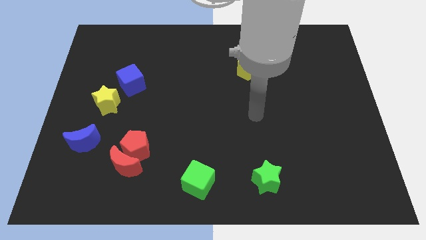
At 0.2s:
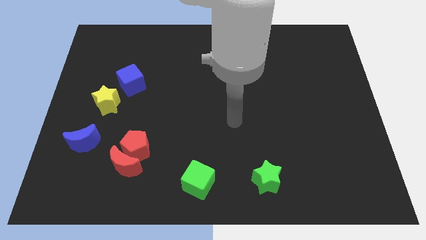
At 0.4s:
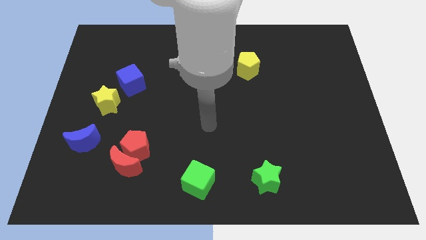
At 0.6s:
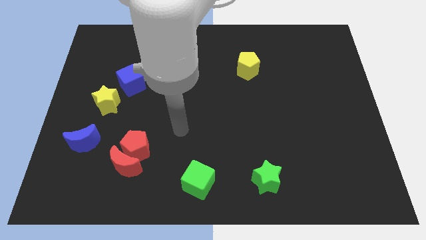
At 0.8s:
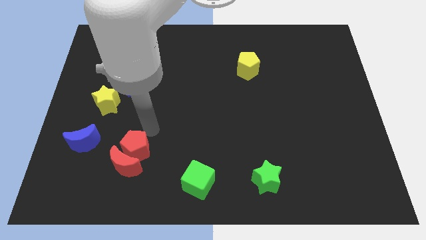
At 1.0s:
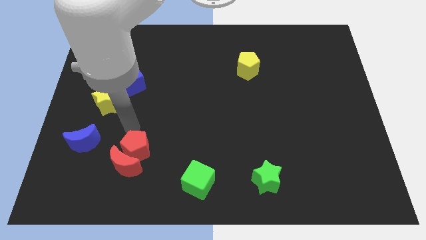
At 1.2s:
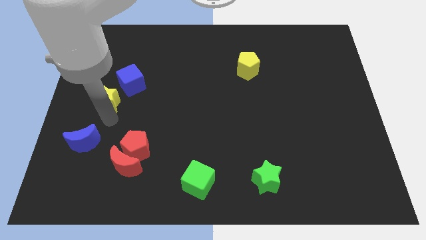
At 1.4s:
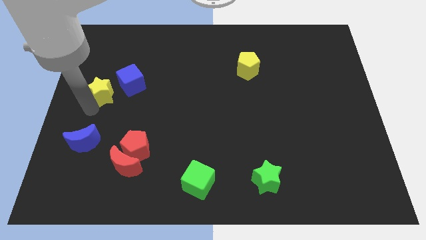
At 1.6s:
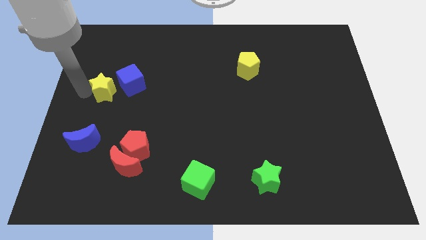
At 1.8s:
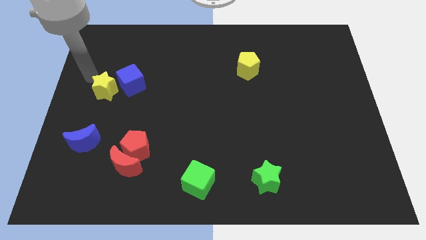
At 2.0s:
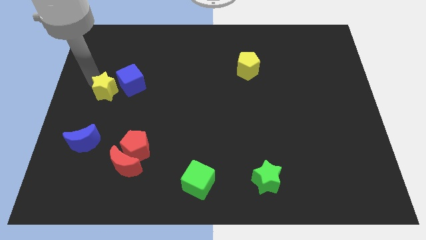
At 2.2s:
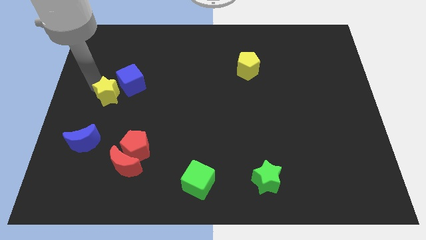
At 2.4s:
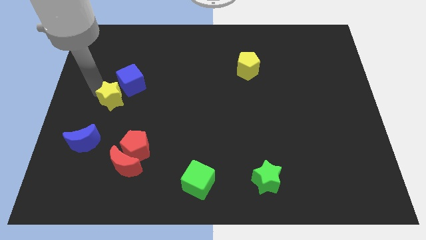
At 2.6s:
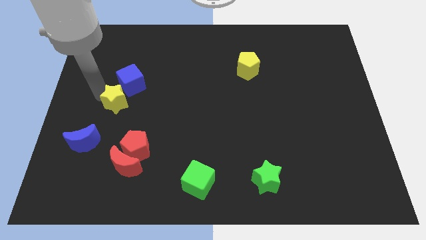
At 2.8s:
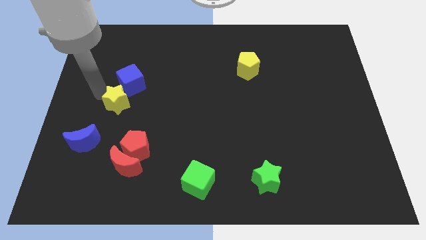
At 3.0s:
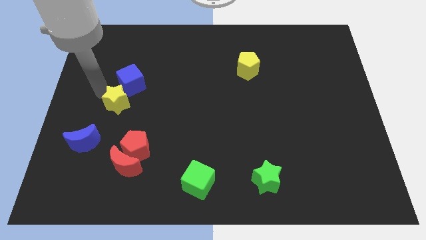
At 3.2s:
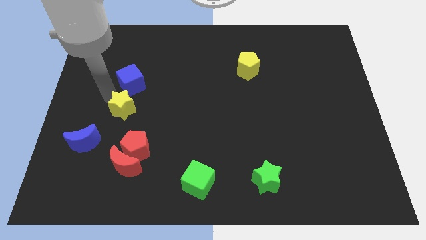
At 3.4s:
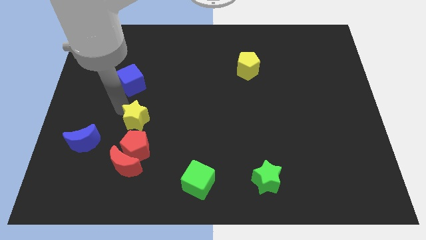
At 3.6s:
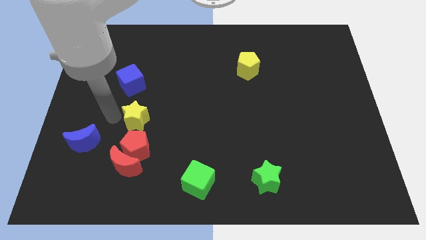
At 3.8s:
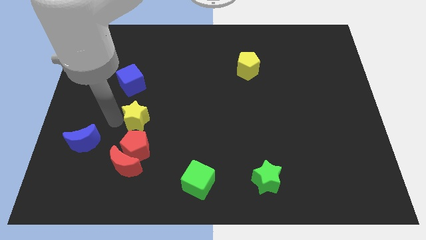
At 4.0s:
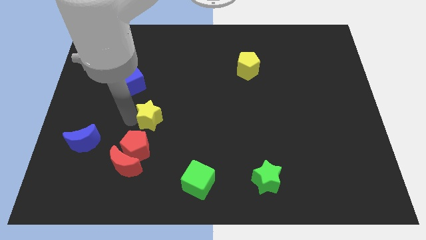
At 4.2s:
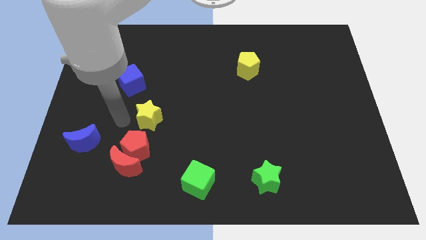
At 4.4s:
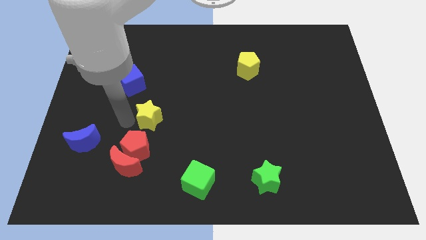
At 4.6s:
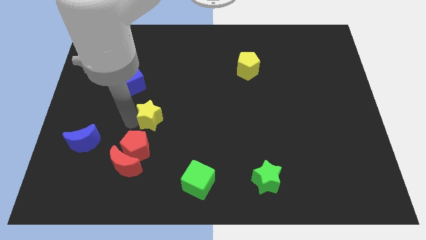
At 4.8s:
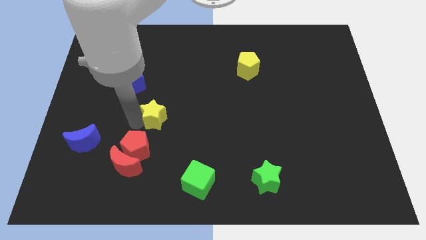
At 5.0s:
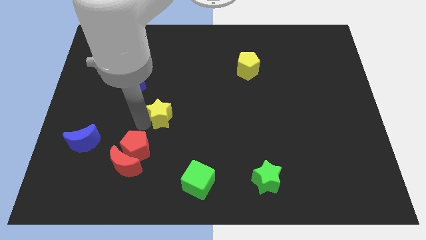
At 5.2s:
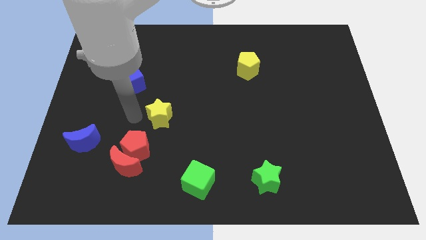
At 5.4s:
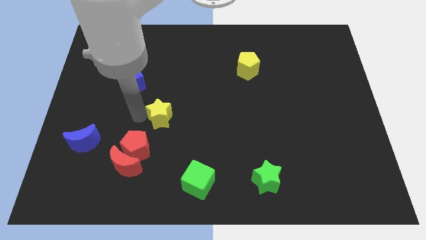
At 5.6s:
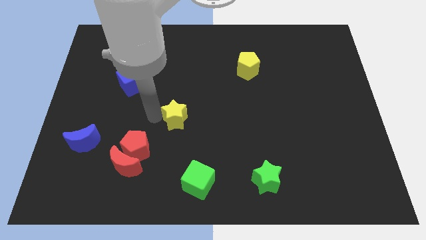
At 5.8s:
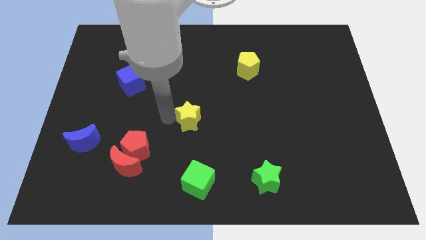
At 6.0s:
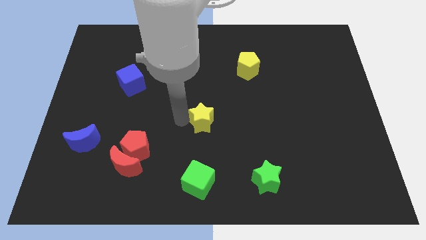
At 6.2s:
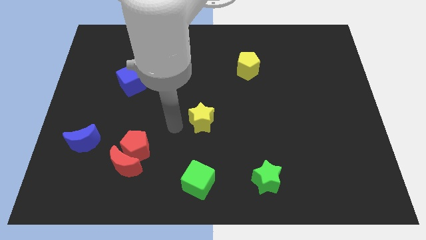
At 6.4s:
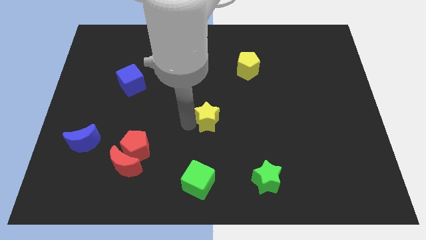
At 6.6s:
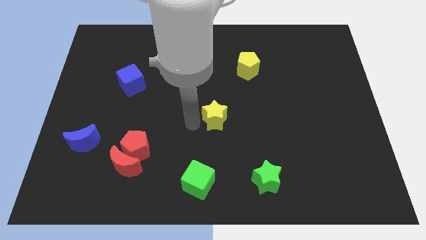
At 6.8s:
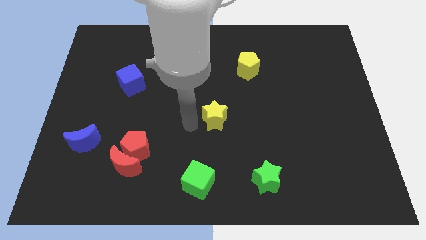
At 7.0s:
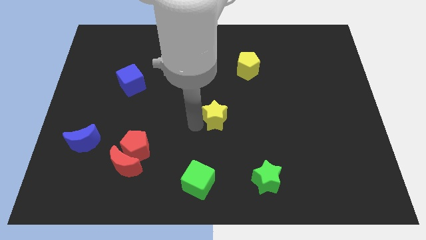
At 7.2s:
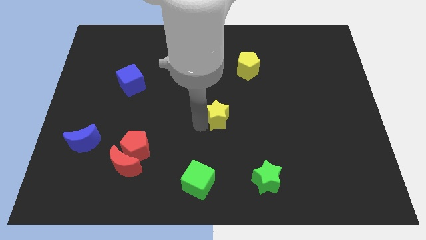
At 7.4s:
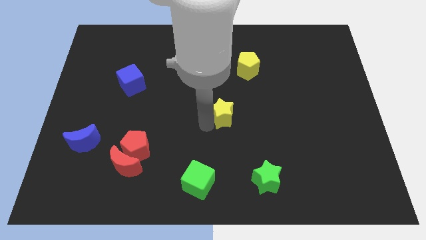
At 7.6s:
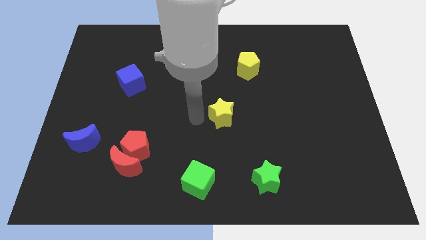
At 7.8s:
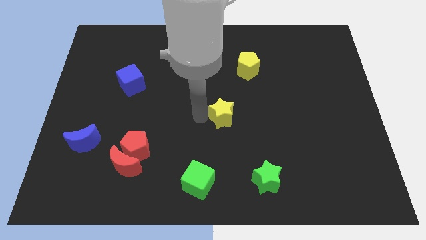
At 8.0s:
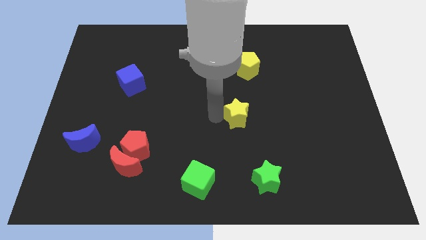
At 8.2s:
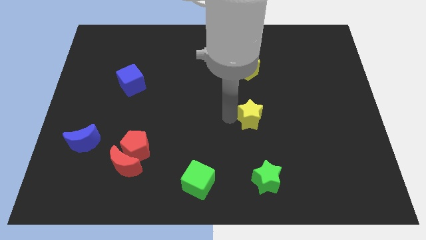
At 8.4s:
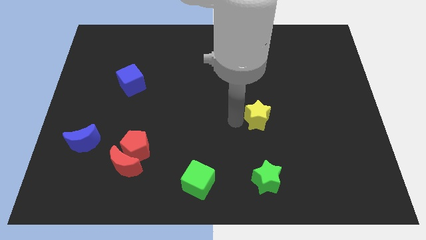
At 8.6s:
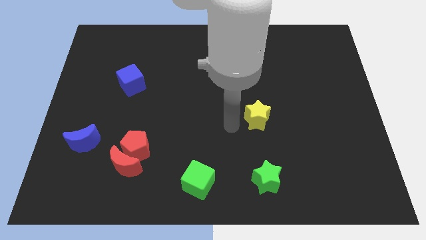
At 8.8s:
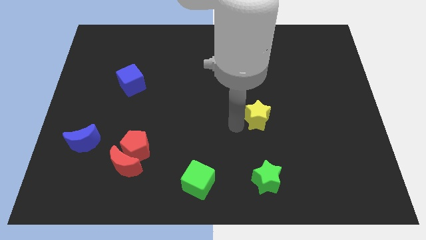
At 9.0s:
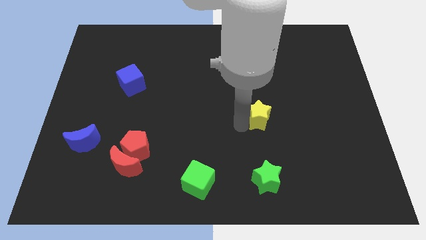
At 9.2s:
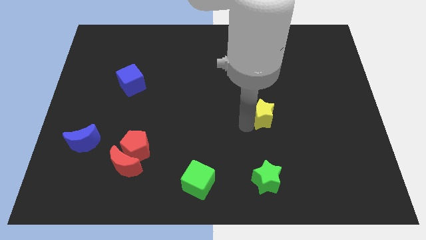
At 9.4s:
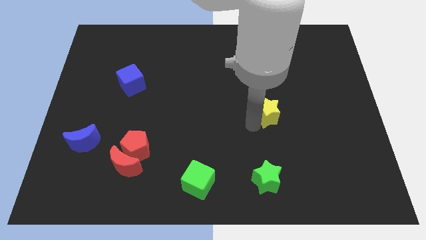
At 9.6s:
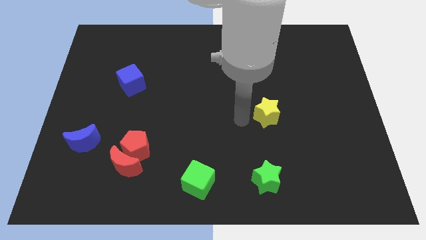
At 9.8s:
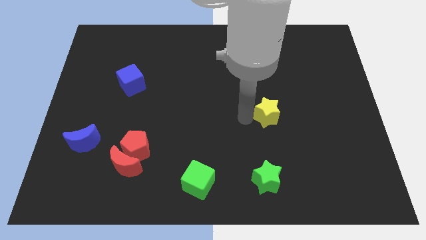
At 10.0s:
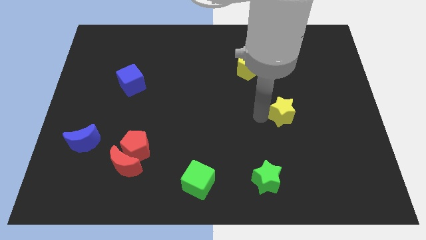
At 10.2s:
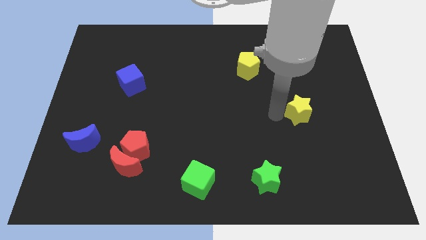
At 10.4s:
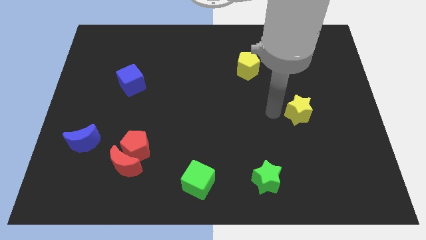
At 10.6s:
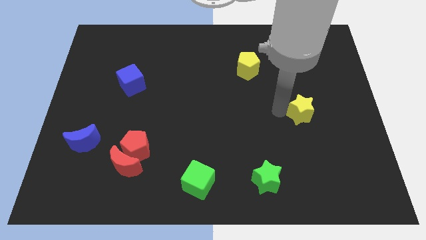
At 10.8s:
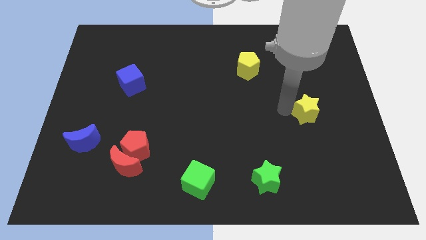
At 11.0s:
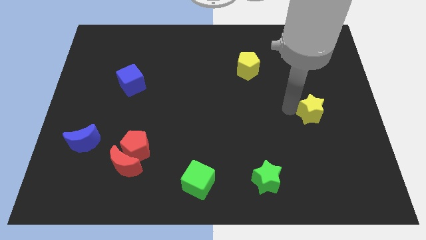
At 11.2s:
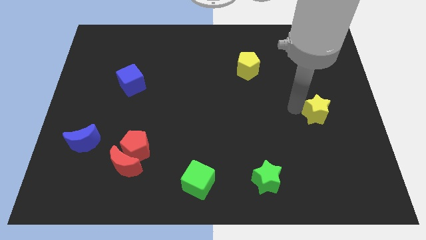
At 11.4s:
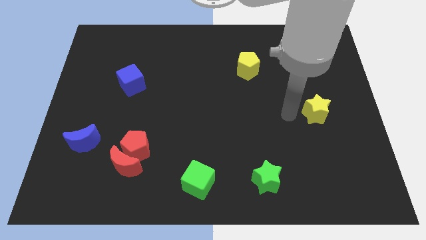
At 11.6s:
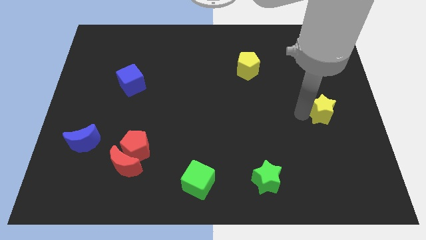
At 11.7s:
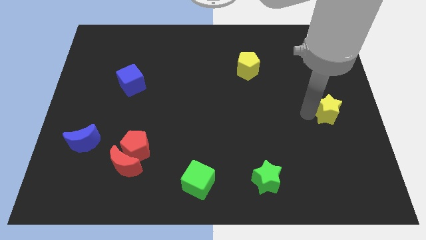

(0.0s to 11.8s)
push the yellow star to the right side of the board

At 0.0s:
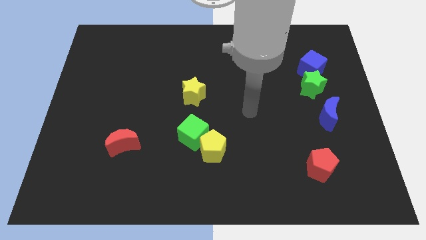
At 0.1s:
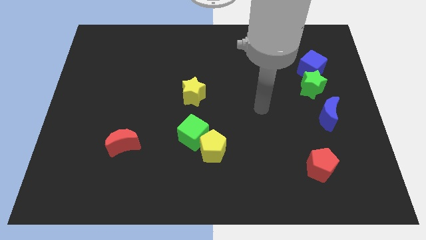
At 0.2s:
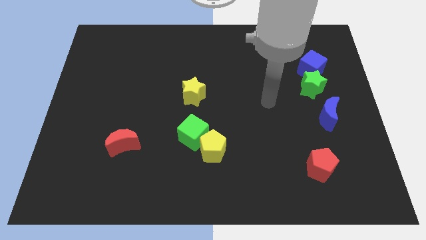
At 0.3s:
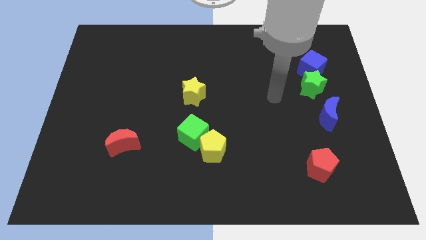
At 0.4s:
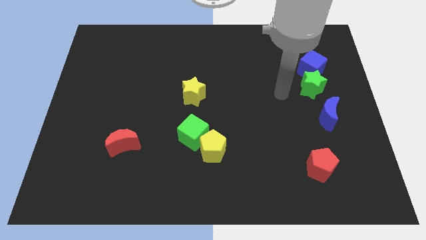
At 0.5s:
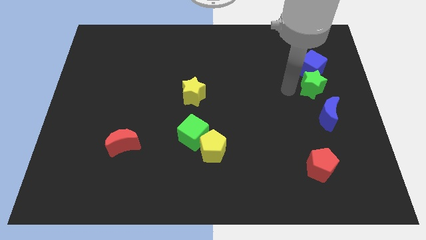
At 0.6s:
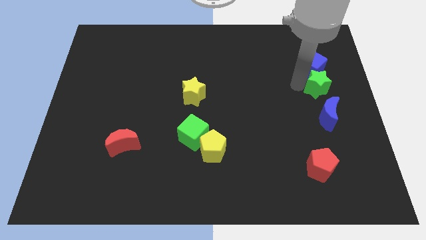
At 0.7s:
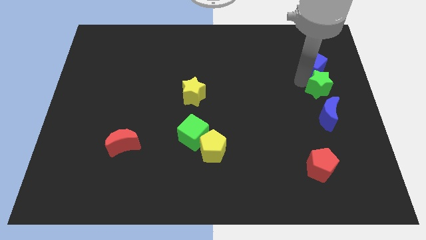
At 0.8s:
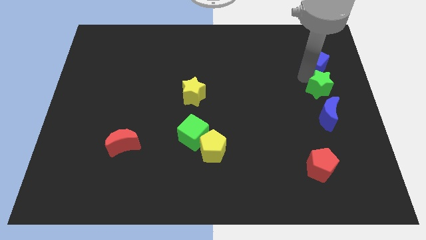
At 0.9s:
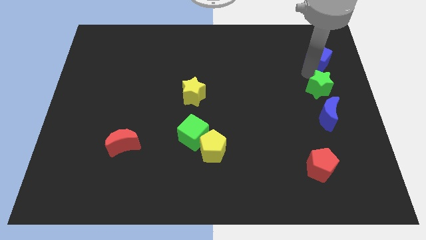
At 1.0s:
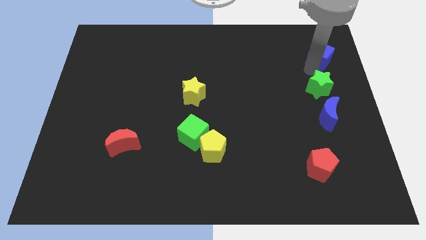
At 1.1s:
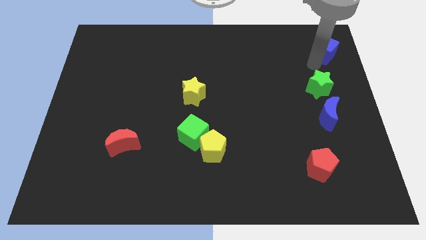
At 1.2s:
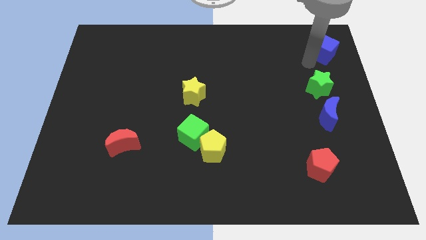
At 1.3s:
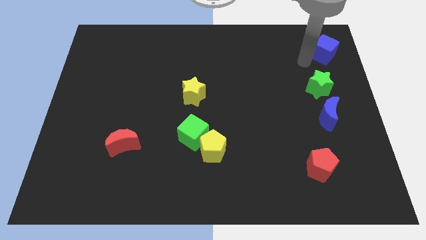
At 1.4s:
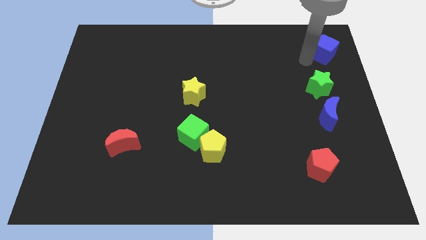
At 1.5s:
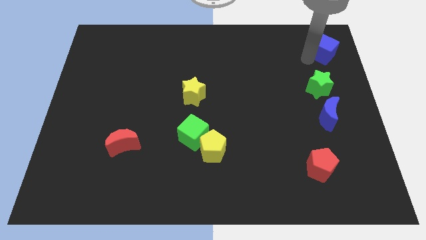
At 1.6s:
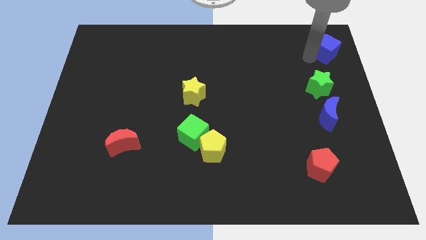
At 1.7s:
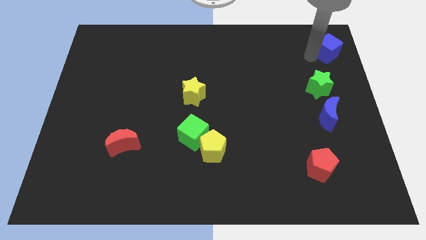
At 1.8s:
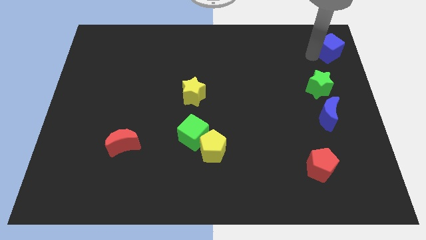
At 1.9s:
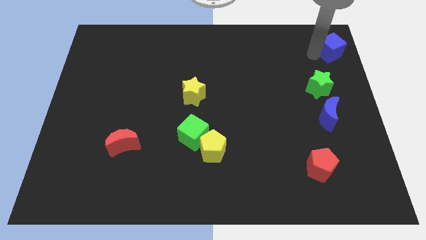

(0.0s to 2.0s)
put the blue cube to the top right
